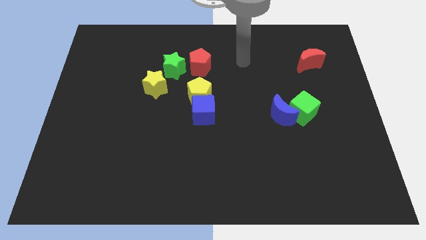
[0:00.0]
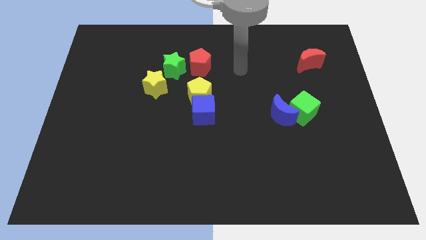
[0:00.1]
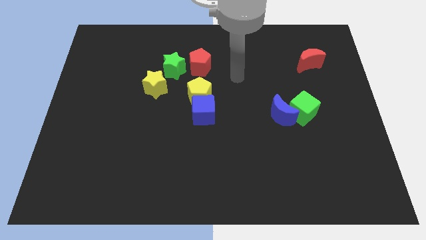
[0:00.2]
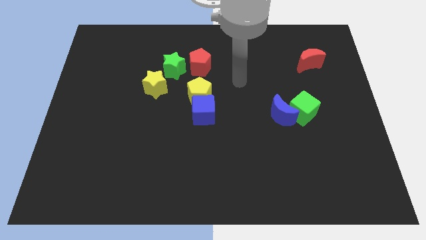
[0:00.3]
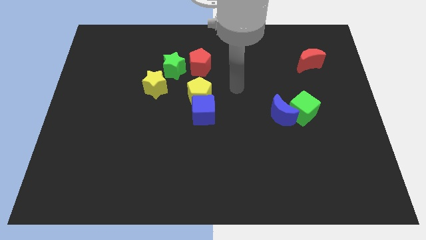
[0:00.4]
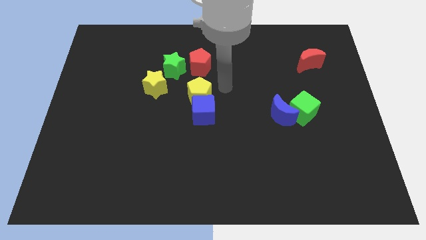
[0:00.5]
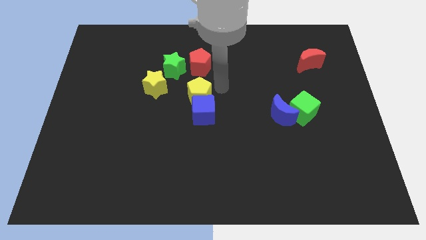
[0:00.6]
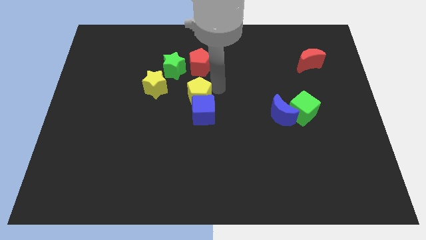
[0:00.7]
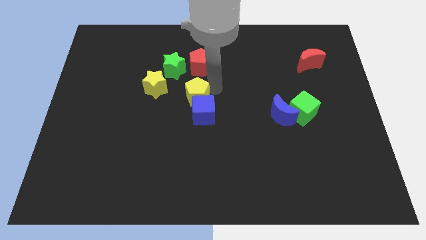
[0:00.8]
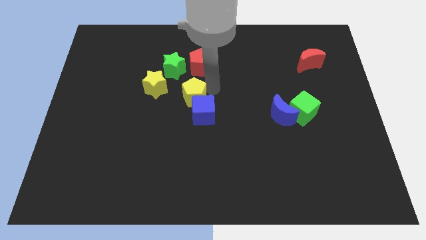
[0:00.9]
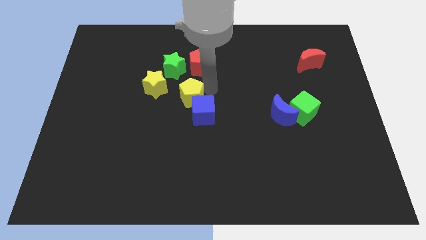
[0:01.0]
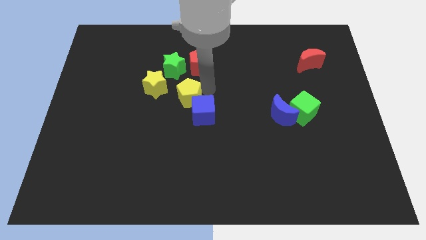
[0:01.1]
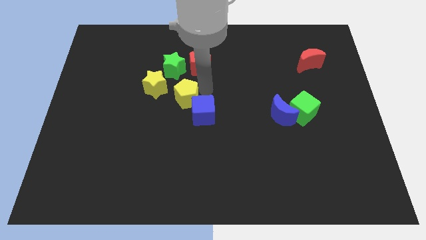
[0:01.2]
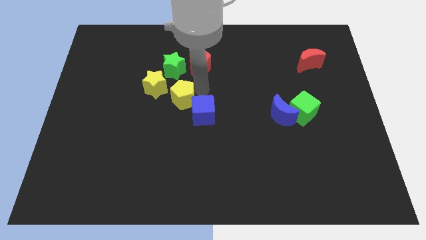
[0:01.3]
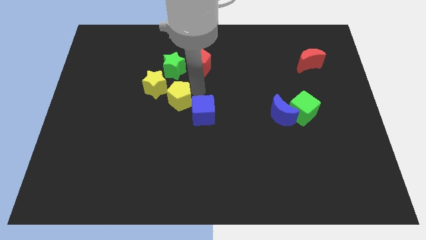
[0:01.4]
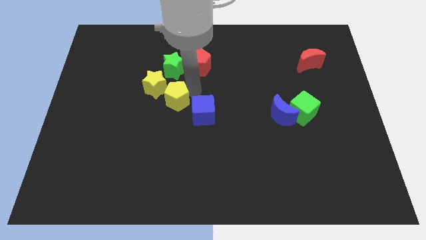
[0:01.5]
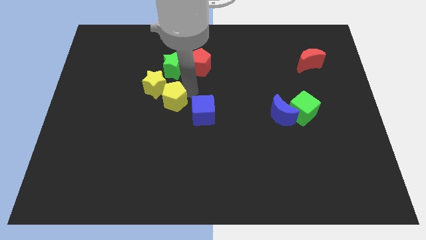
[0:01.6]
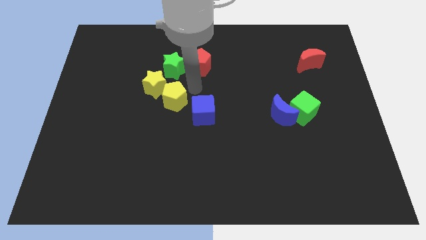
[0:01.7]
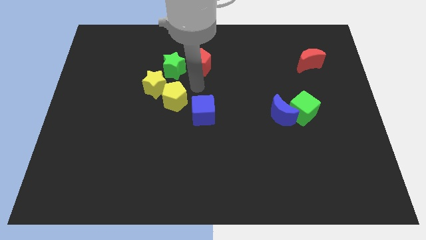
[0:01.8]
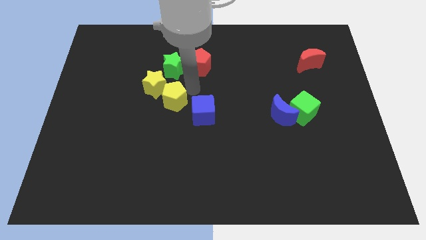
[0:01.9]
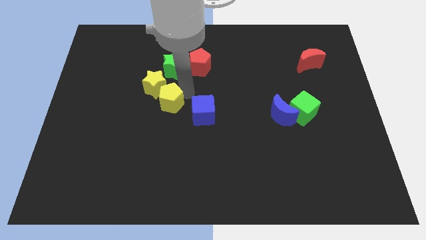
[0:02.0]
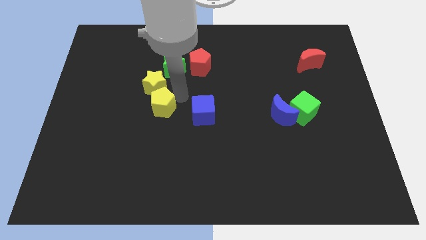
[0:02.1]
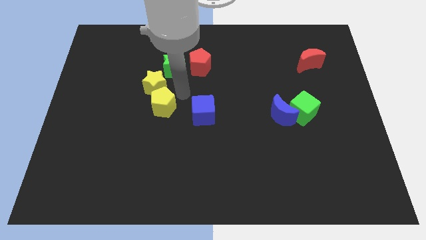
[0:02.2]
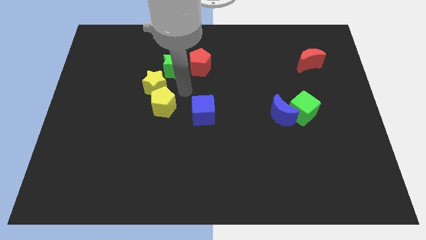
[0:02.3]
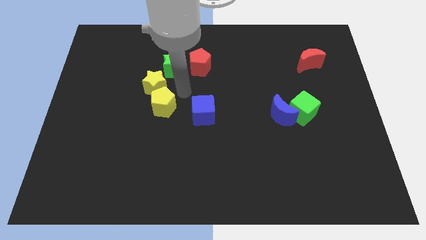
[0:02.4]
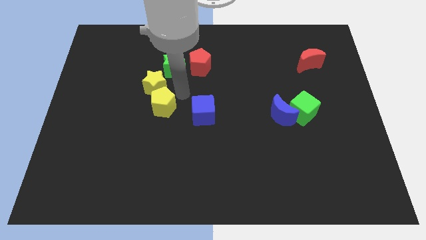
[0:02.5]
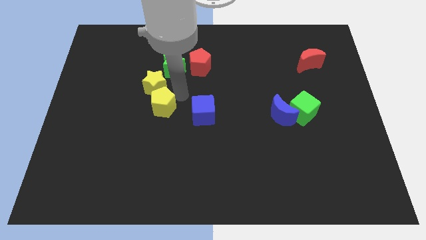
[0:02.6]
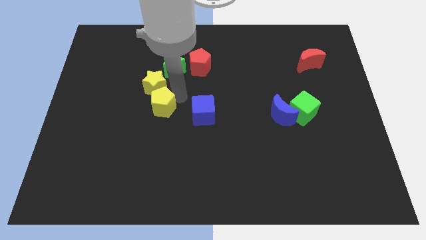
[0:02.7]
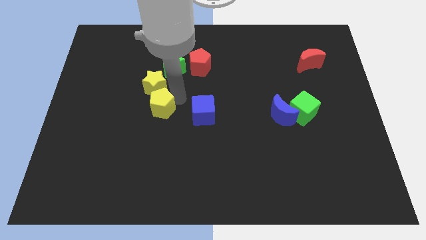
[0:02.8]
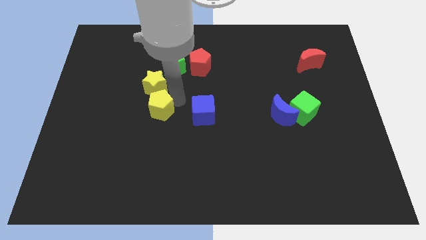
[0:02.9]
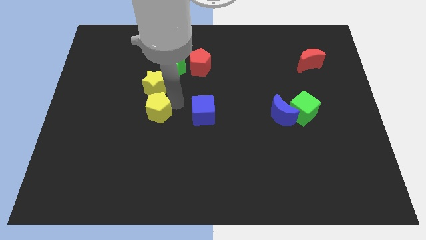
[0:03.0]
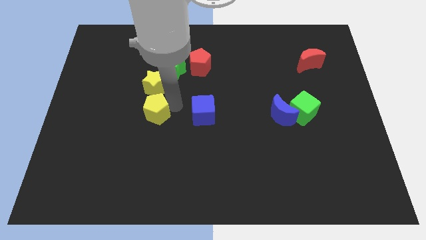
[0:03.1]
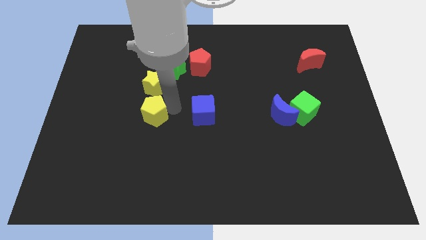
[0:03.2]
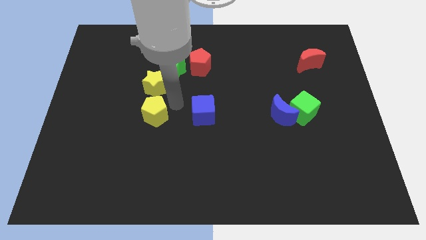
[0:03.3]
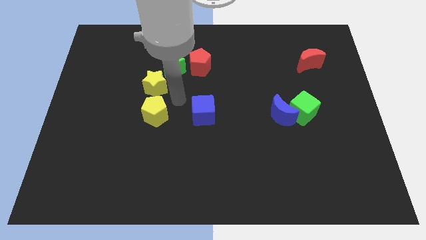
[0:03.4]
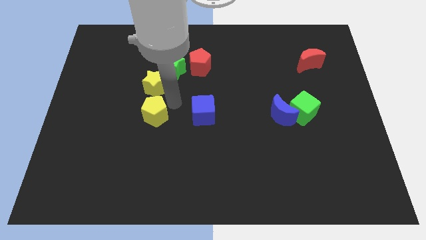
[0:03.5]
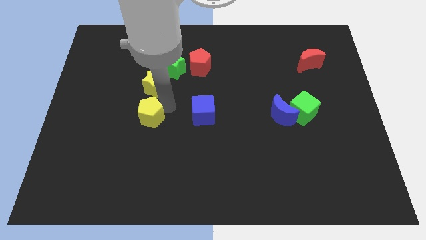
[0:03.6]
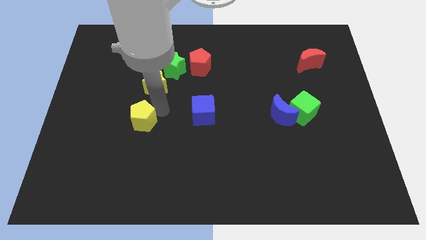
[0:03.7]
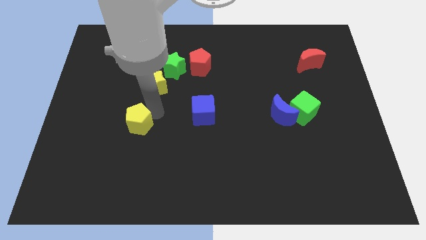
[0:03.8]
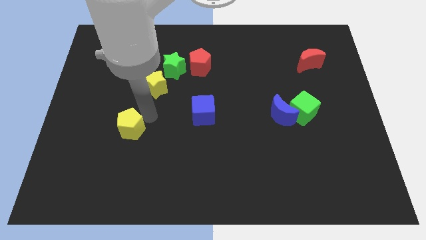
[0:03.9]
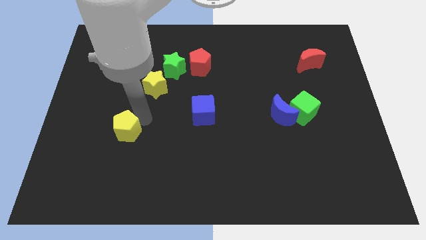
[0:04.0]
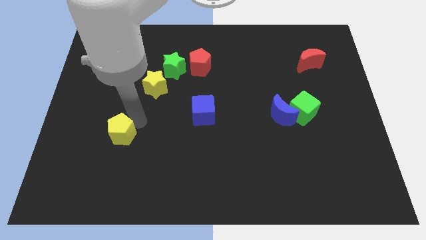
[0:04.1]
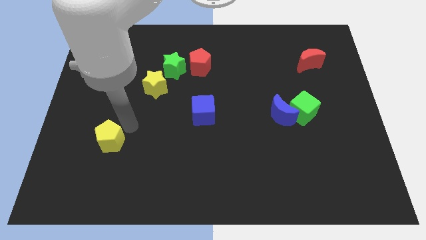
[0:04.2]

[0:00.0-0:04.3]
push the yellow pentagon diagonally down and to the left

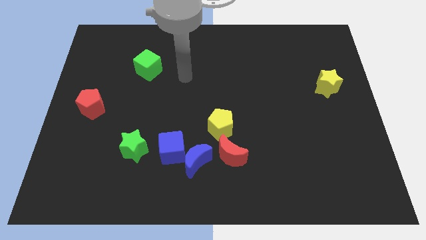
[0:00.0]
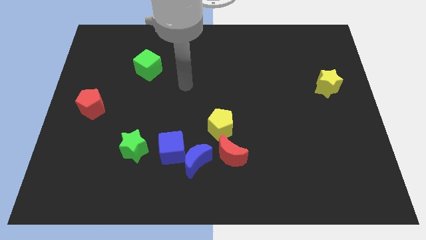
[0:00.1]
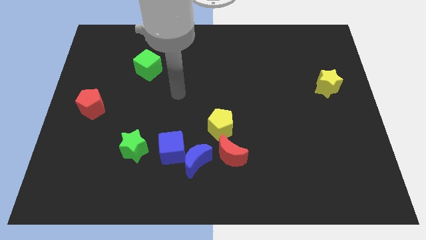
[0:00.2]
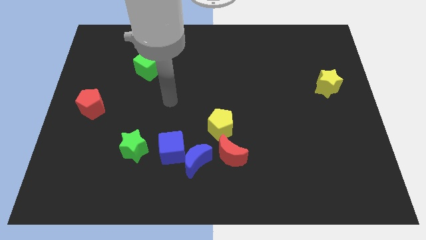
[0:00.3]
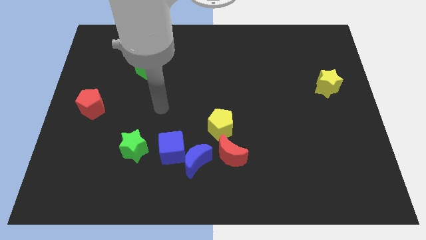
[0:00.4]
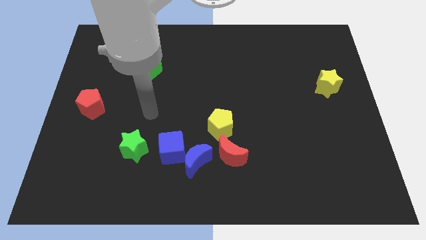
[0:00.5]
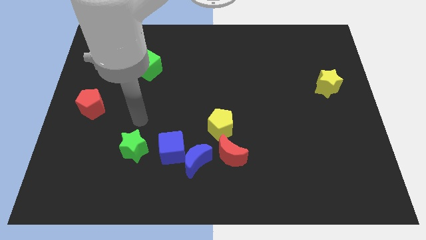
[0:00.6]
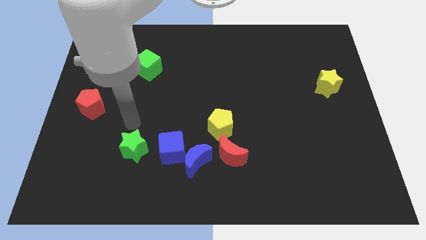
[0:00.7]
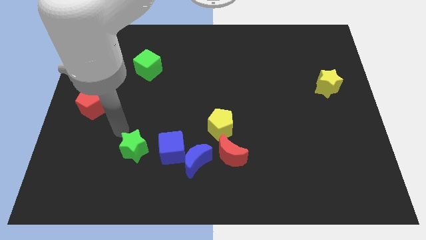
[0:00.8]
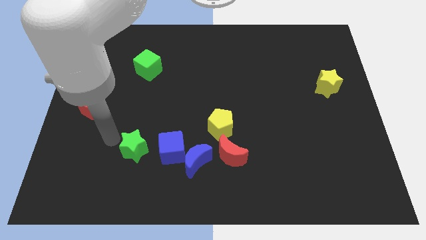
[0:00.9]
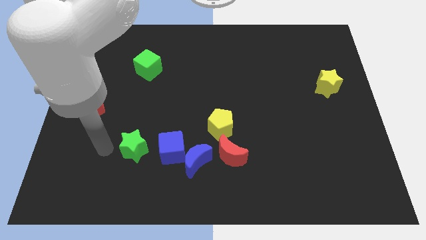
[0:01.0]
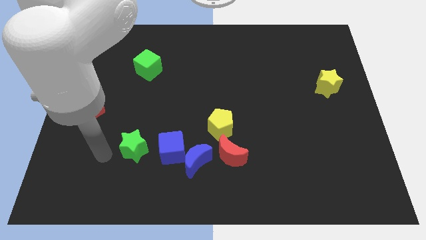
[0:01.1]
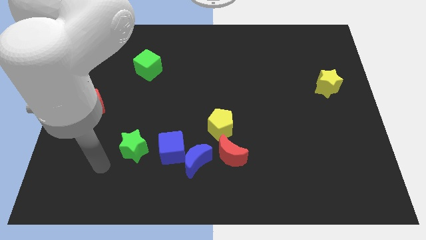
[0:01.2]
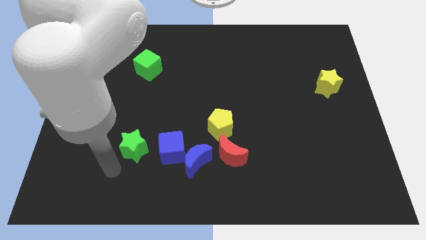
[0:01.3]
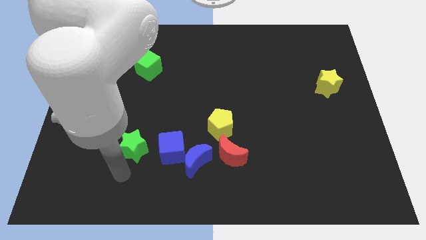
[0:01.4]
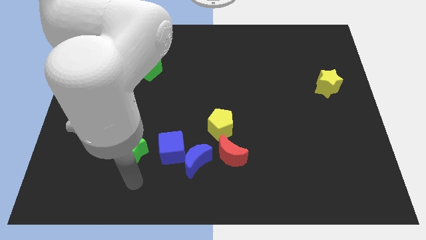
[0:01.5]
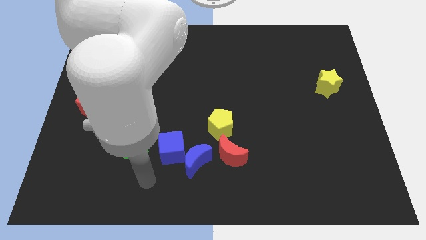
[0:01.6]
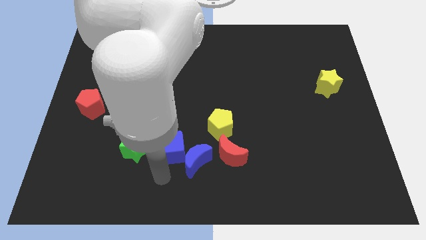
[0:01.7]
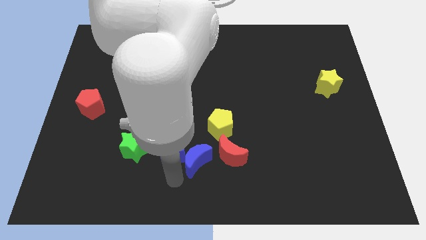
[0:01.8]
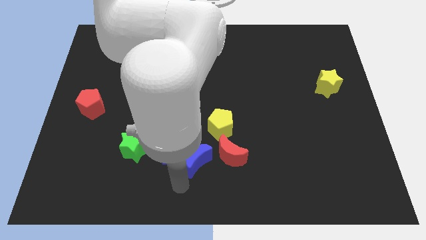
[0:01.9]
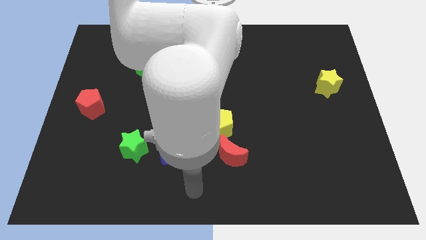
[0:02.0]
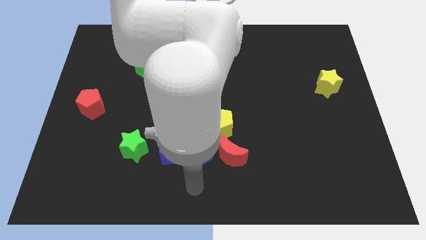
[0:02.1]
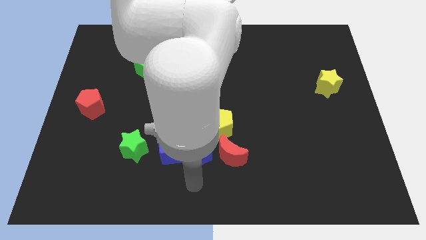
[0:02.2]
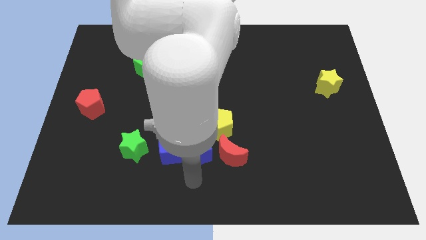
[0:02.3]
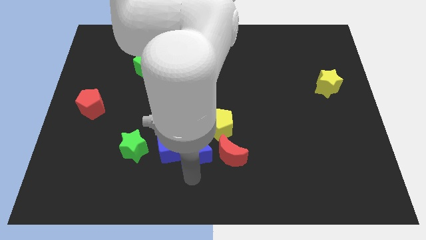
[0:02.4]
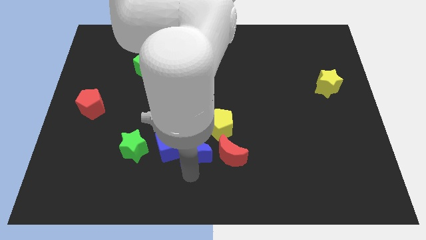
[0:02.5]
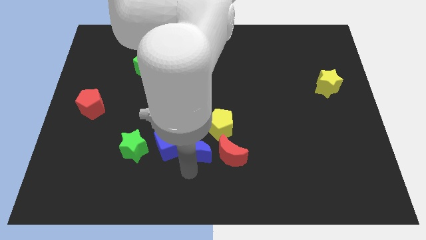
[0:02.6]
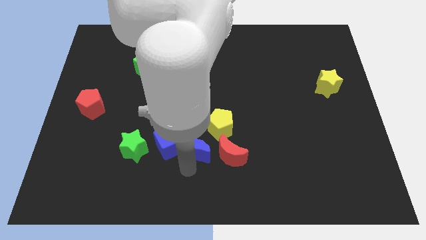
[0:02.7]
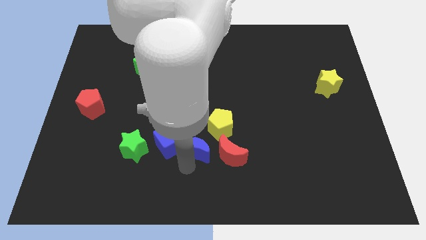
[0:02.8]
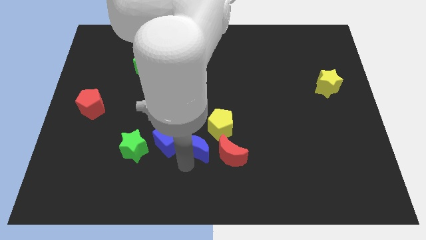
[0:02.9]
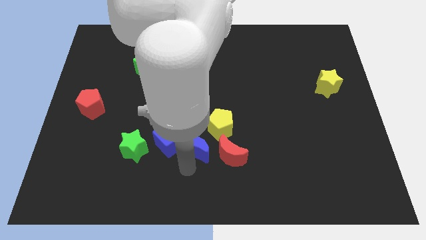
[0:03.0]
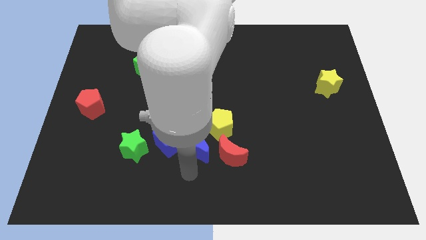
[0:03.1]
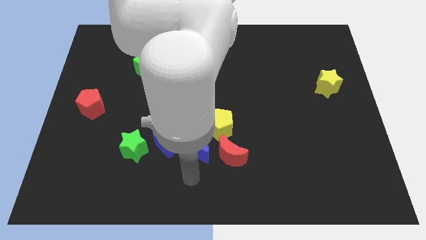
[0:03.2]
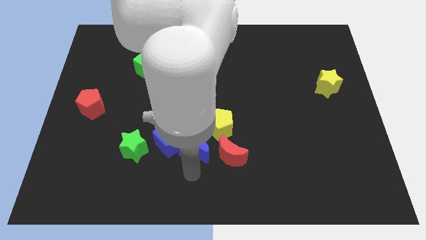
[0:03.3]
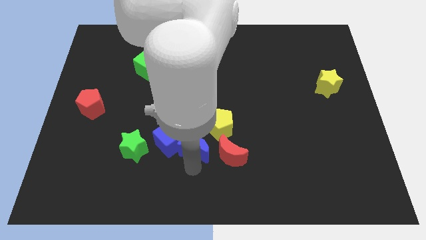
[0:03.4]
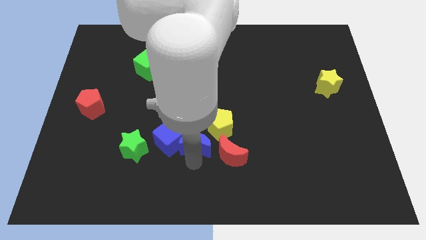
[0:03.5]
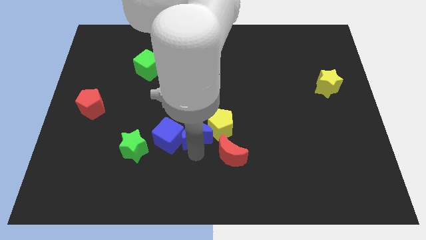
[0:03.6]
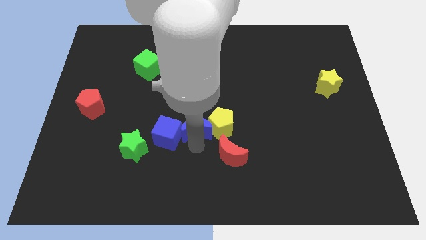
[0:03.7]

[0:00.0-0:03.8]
slightly move the blue moon upwards

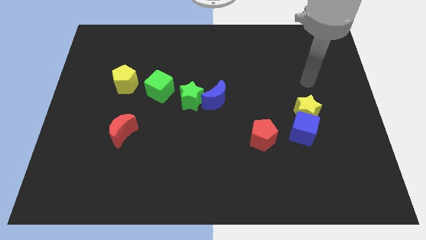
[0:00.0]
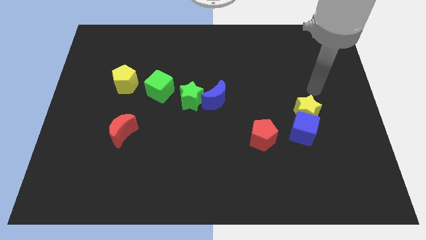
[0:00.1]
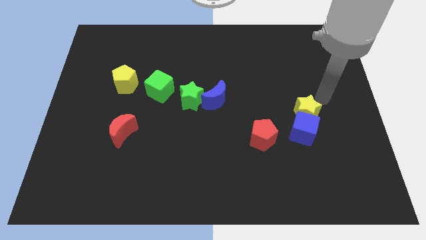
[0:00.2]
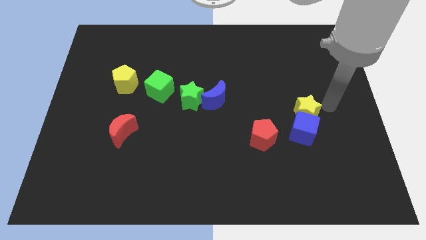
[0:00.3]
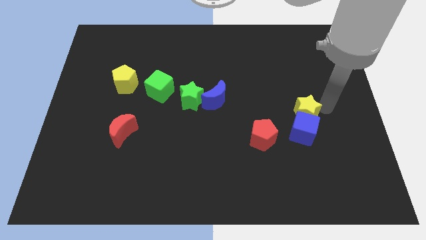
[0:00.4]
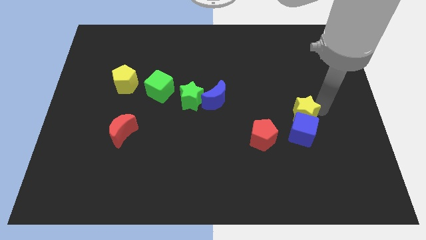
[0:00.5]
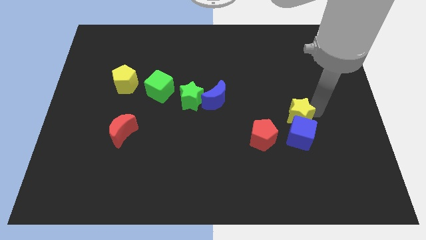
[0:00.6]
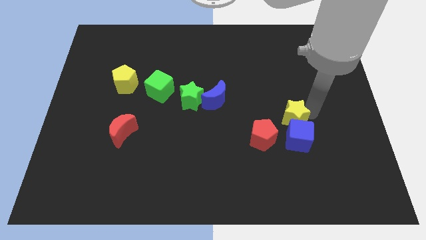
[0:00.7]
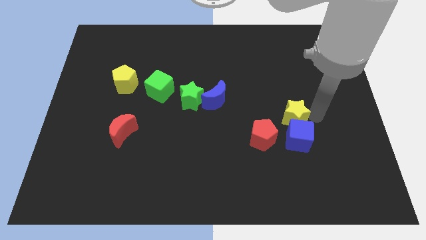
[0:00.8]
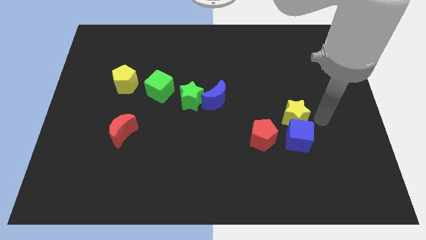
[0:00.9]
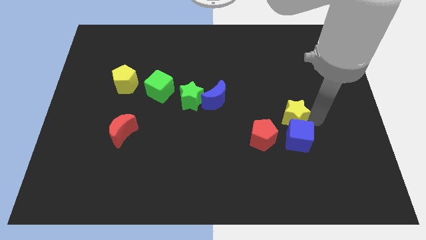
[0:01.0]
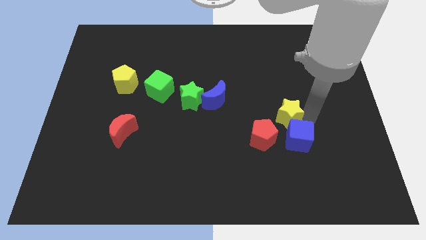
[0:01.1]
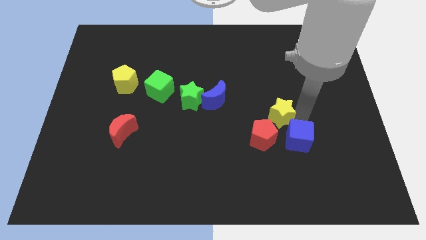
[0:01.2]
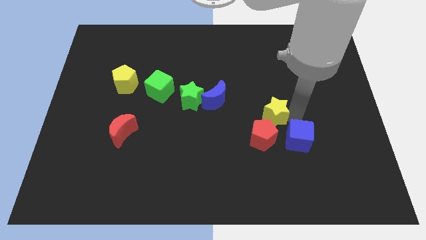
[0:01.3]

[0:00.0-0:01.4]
slide the yellow star somewhat to the left
